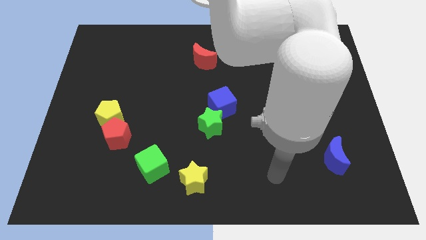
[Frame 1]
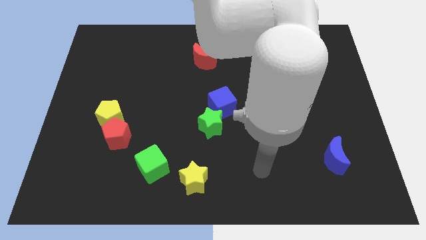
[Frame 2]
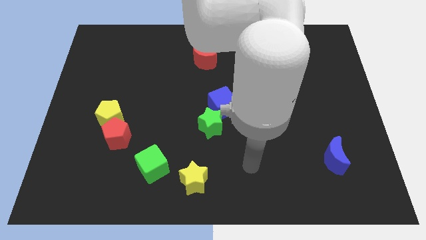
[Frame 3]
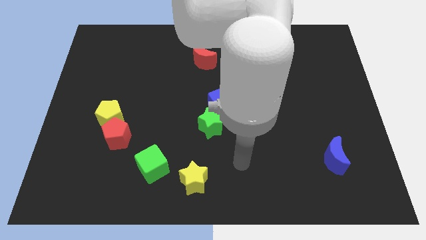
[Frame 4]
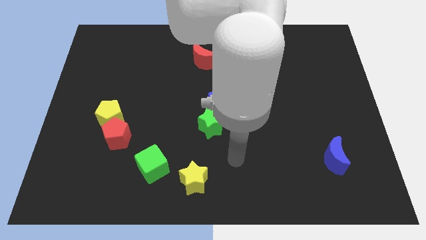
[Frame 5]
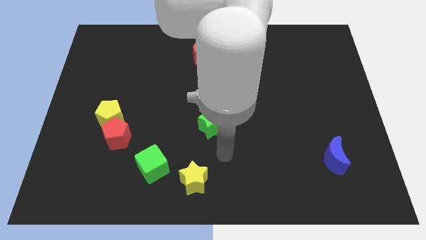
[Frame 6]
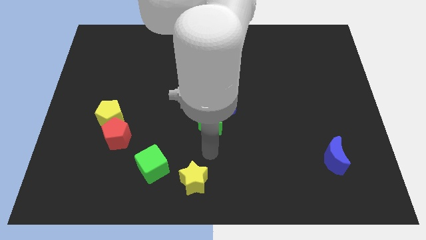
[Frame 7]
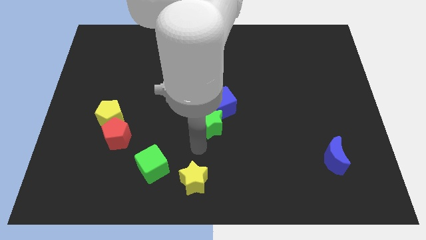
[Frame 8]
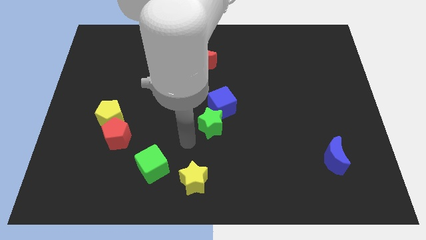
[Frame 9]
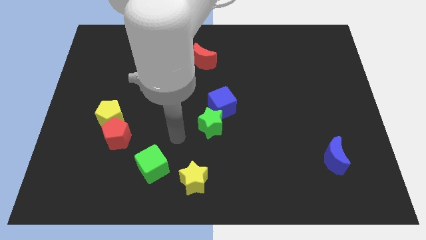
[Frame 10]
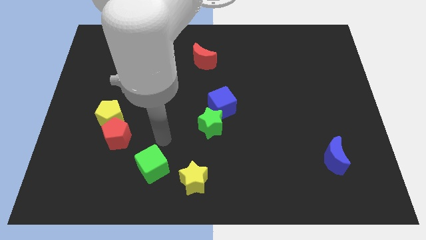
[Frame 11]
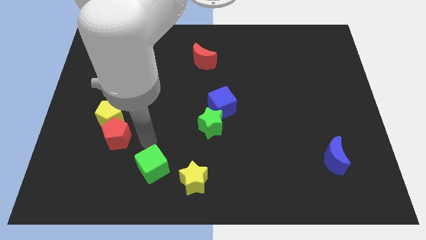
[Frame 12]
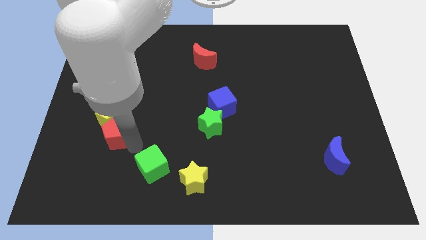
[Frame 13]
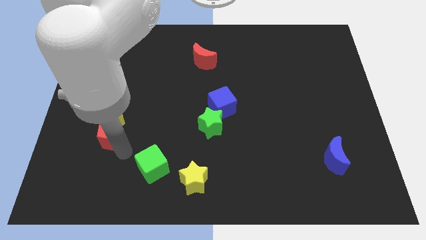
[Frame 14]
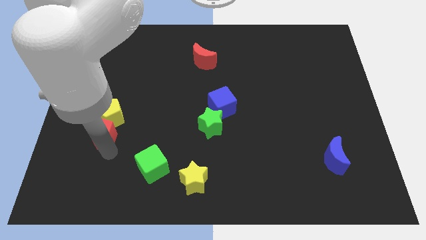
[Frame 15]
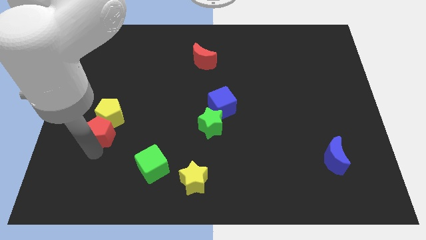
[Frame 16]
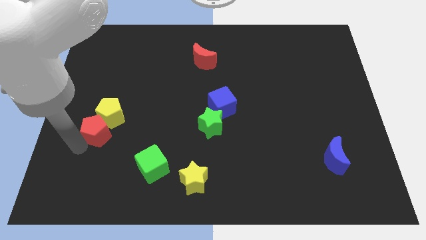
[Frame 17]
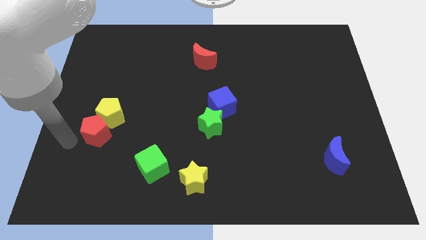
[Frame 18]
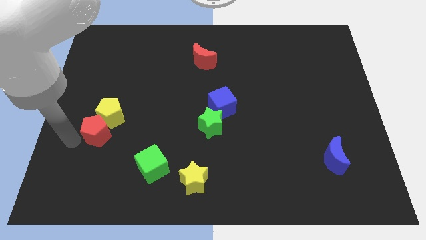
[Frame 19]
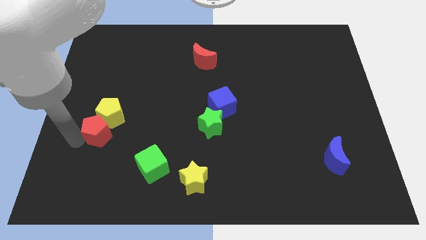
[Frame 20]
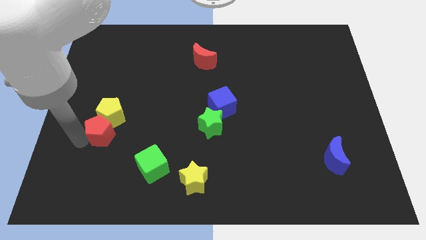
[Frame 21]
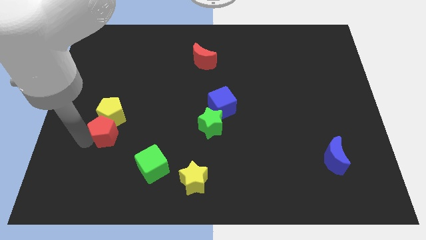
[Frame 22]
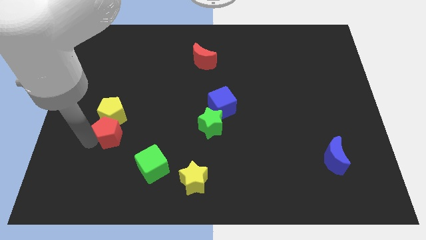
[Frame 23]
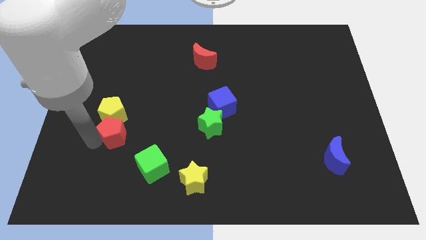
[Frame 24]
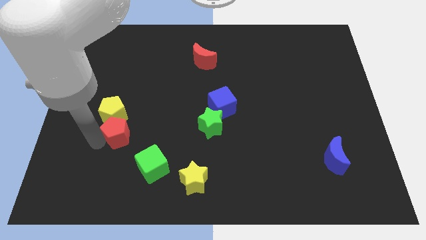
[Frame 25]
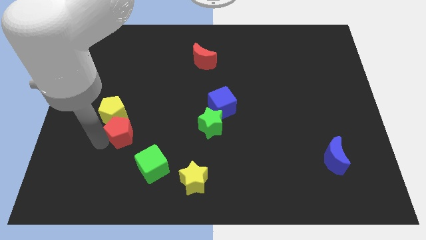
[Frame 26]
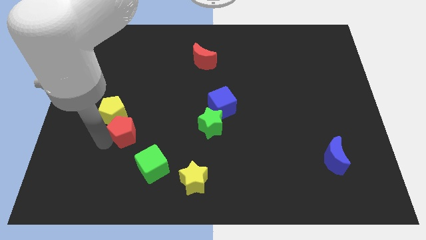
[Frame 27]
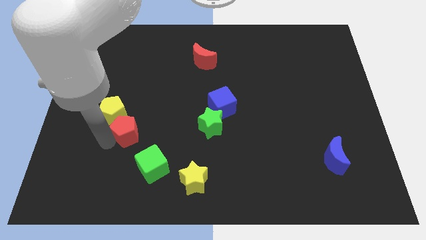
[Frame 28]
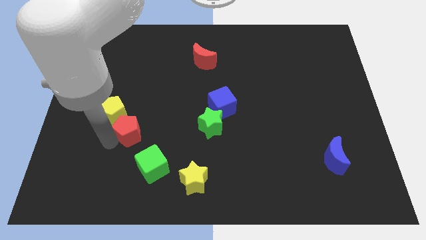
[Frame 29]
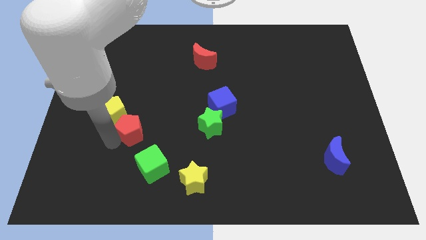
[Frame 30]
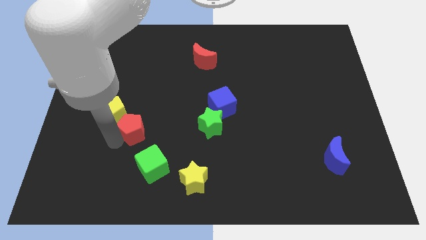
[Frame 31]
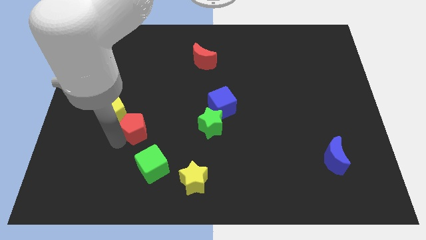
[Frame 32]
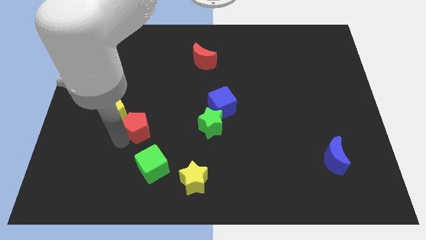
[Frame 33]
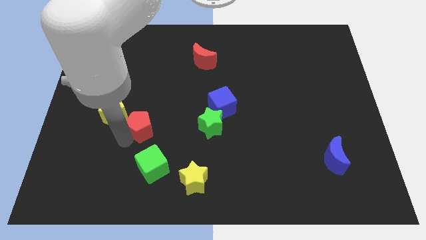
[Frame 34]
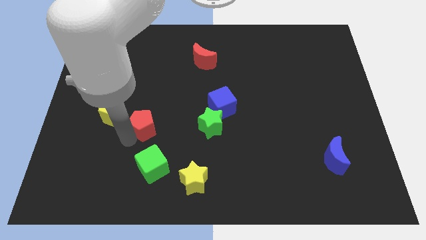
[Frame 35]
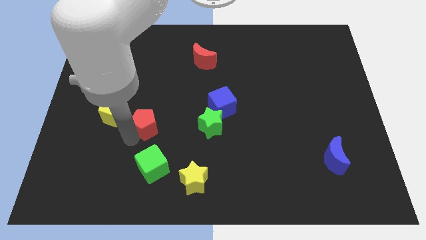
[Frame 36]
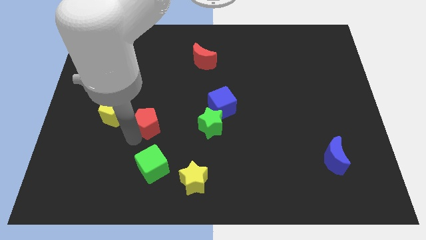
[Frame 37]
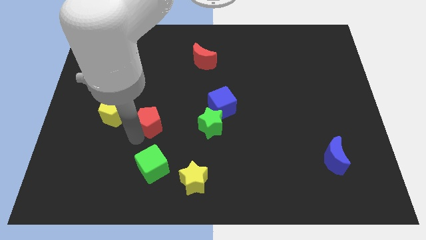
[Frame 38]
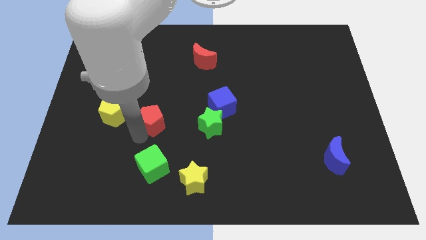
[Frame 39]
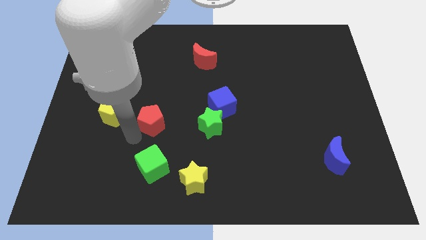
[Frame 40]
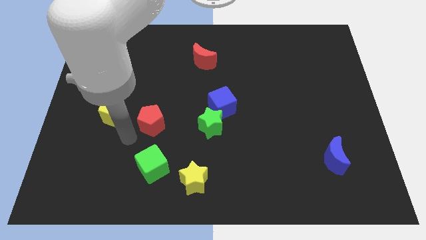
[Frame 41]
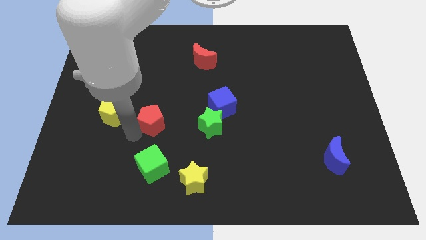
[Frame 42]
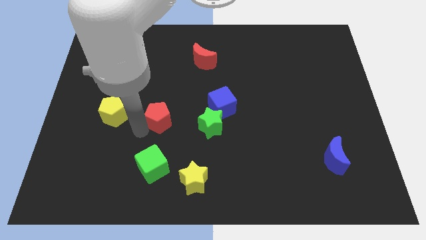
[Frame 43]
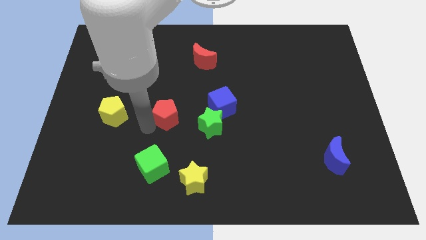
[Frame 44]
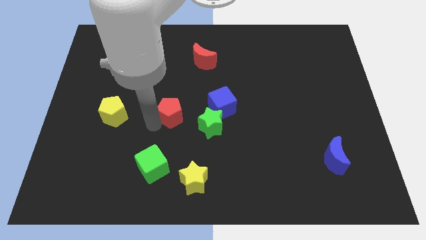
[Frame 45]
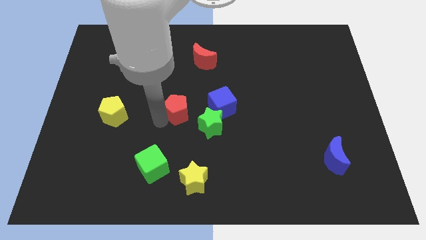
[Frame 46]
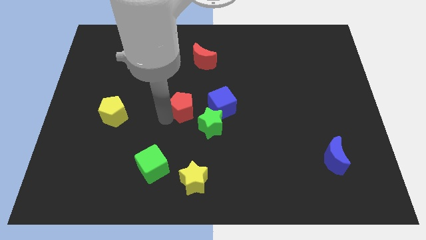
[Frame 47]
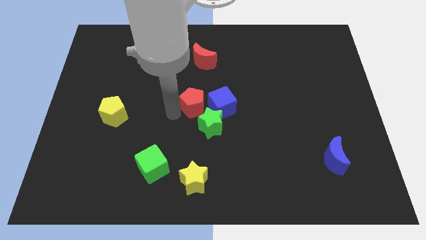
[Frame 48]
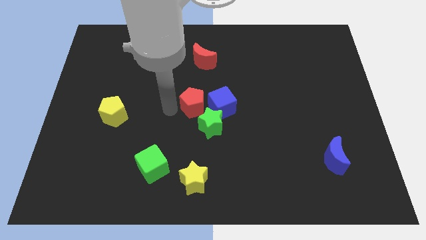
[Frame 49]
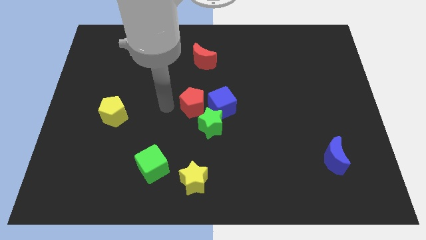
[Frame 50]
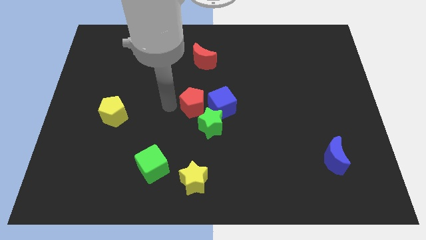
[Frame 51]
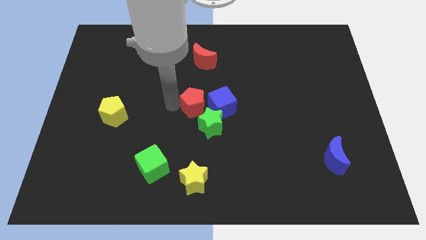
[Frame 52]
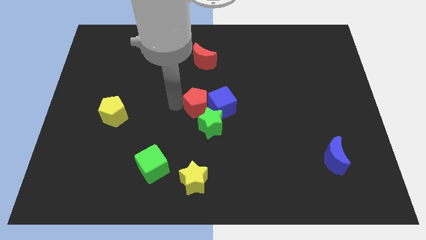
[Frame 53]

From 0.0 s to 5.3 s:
push the red pentagon towards the blue cube

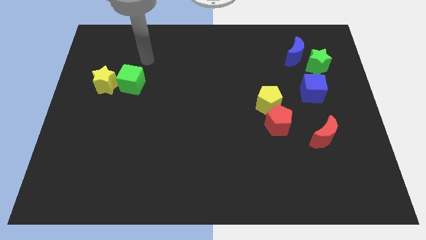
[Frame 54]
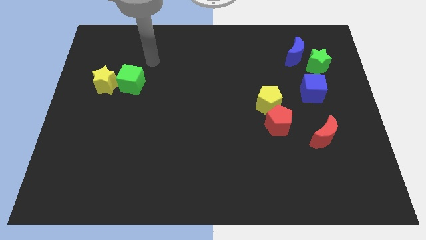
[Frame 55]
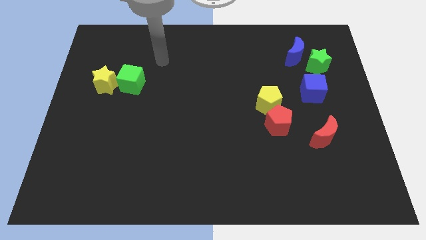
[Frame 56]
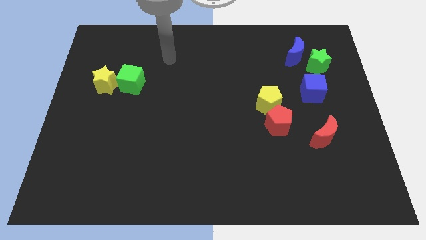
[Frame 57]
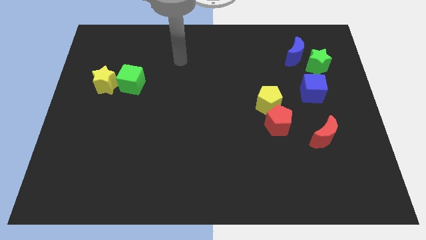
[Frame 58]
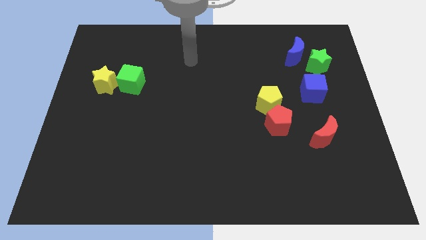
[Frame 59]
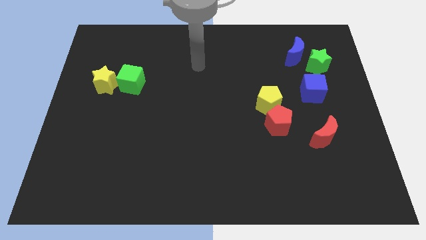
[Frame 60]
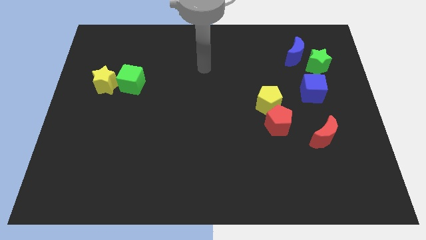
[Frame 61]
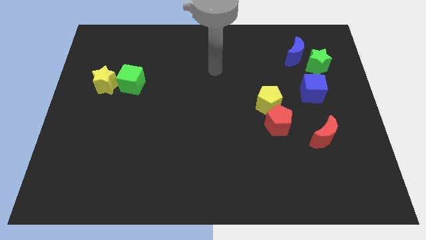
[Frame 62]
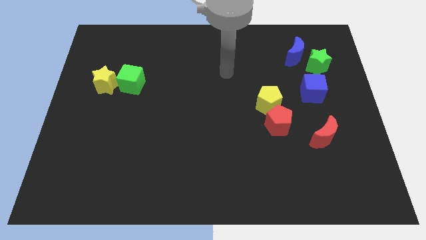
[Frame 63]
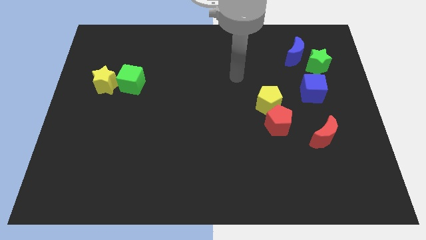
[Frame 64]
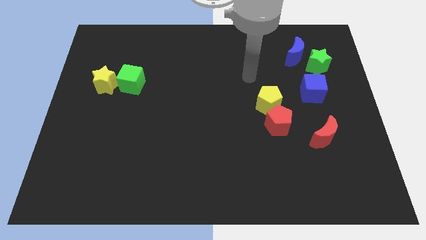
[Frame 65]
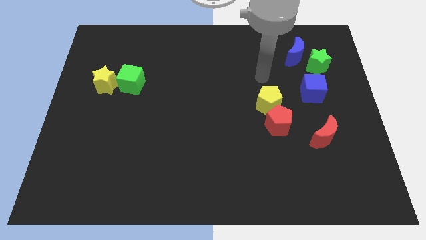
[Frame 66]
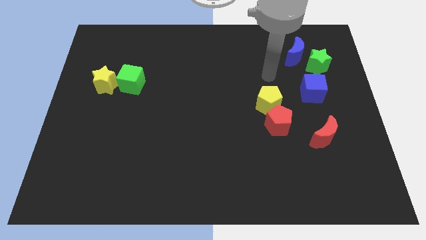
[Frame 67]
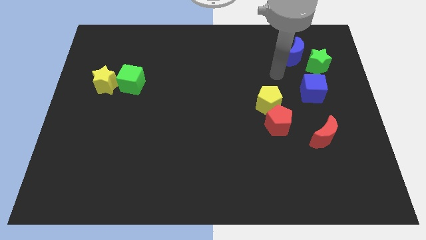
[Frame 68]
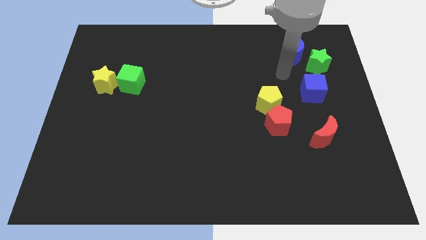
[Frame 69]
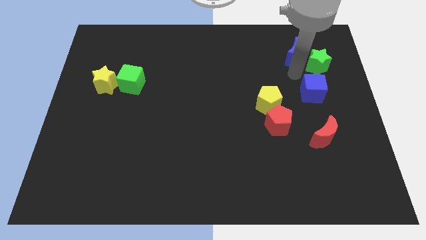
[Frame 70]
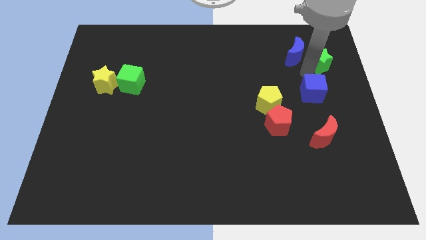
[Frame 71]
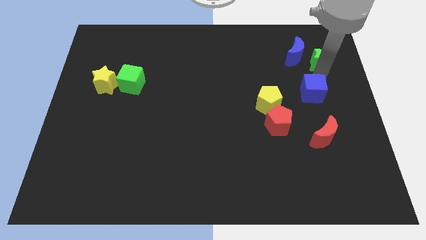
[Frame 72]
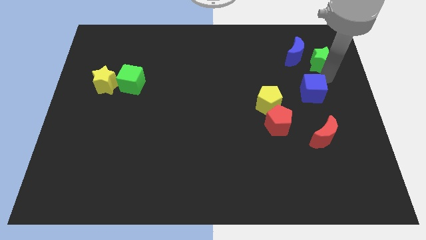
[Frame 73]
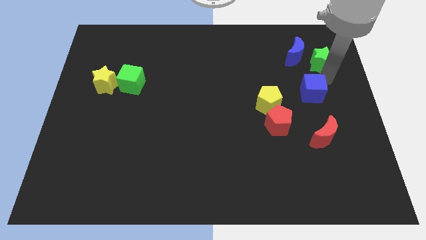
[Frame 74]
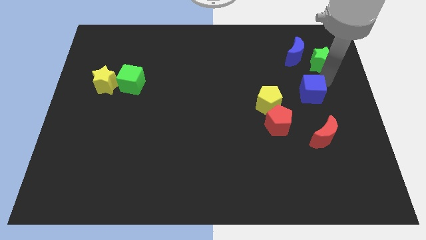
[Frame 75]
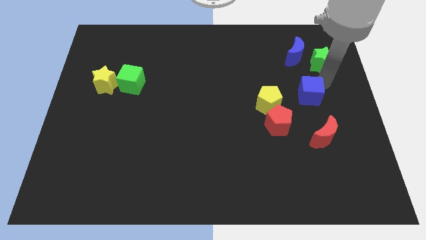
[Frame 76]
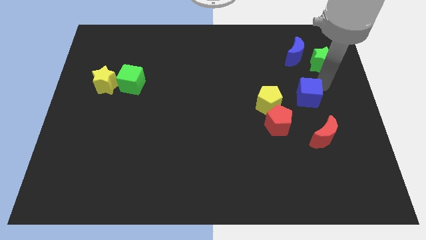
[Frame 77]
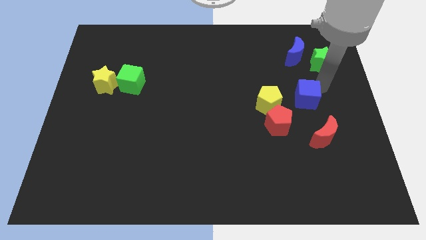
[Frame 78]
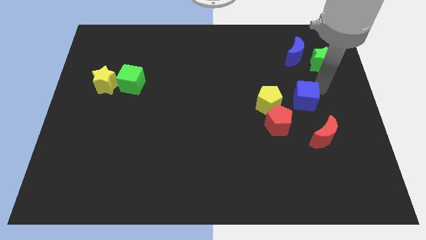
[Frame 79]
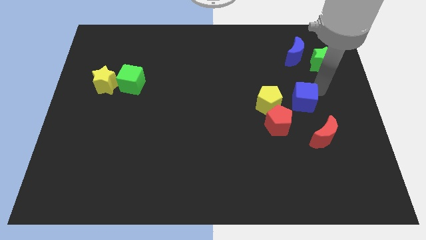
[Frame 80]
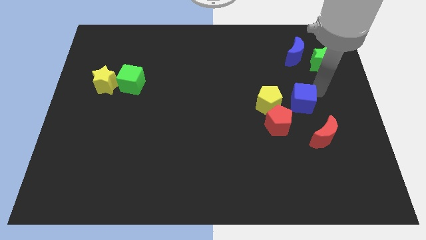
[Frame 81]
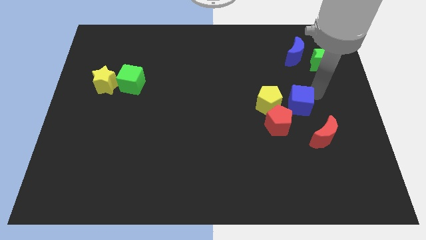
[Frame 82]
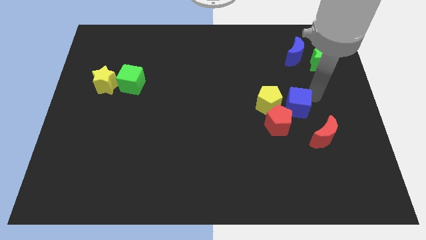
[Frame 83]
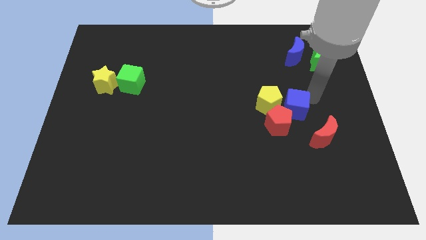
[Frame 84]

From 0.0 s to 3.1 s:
push the blue cube close to the red pentagon
